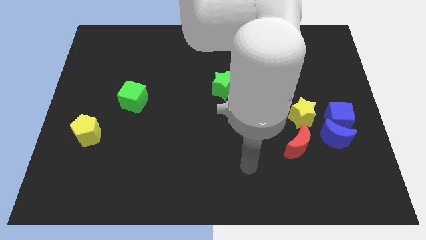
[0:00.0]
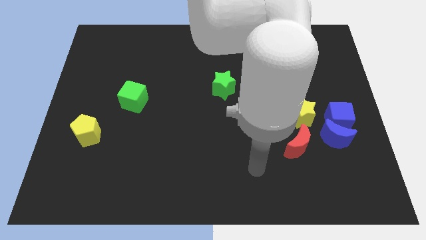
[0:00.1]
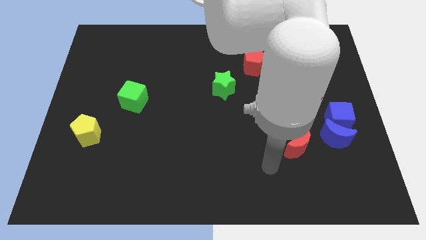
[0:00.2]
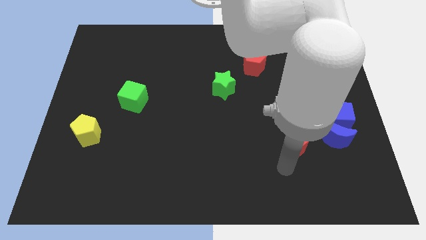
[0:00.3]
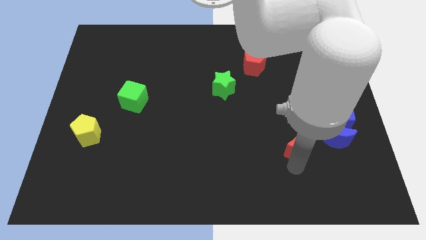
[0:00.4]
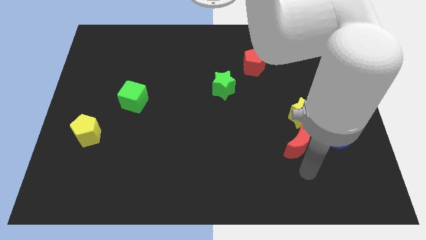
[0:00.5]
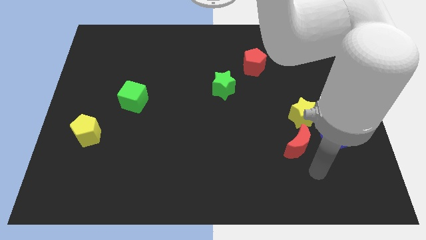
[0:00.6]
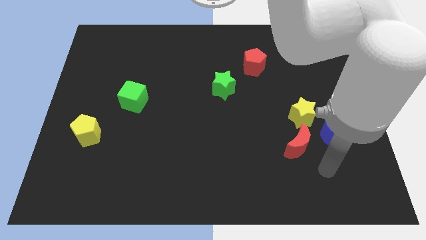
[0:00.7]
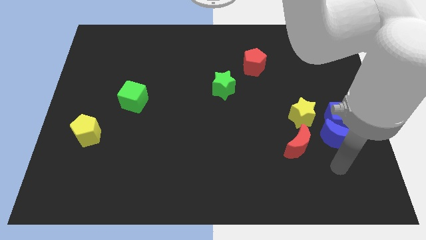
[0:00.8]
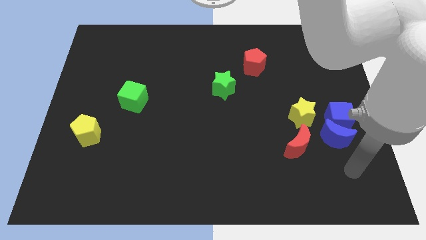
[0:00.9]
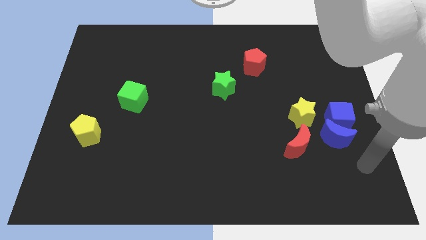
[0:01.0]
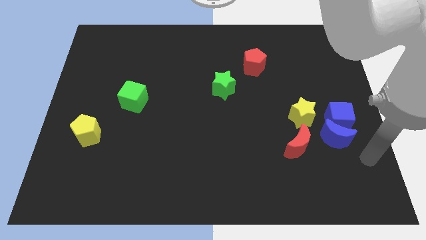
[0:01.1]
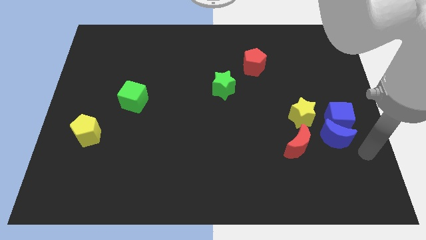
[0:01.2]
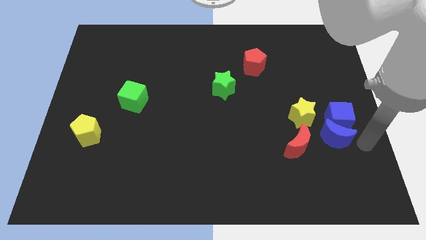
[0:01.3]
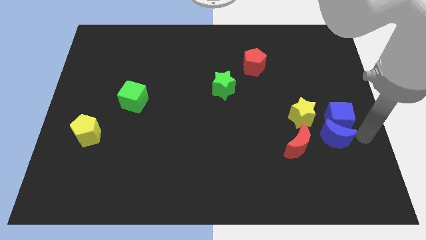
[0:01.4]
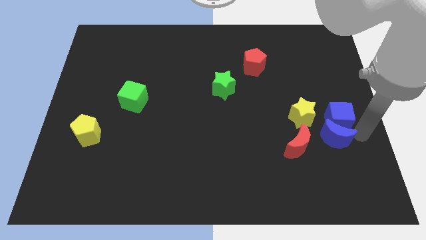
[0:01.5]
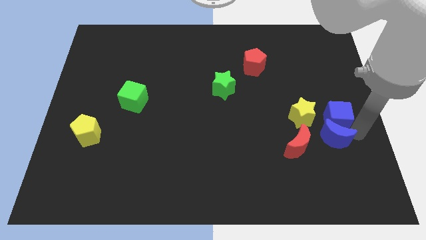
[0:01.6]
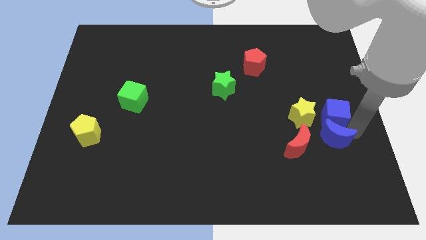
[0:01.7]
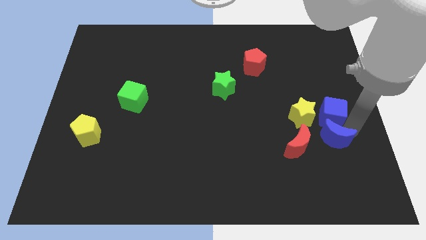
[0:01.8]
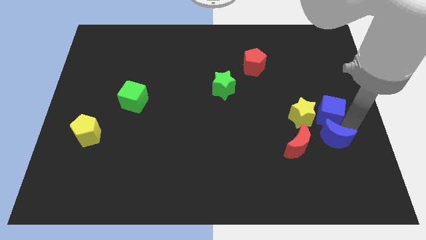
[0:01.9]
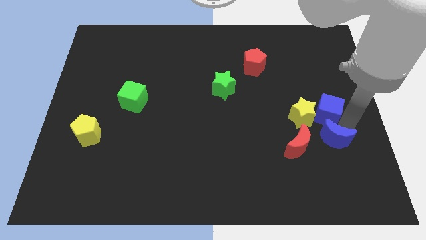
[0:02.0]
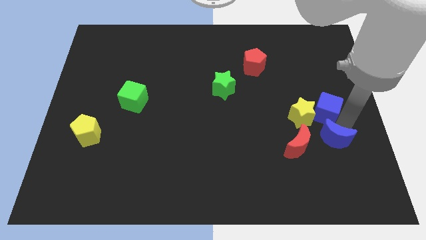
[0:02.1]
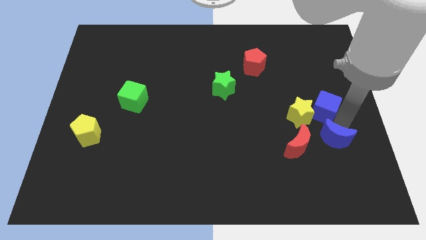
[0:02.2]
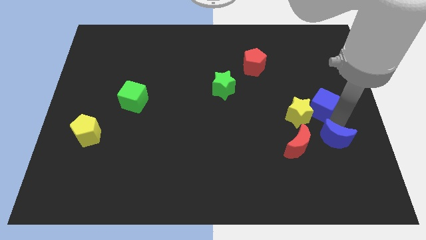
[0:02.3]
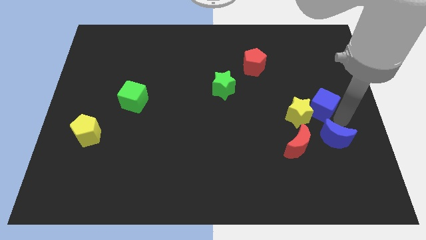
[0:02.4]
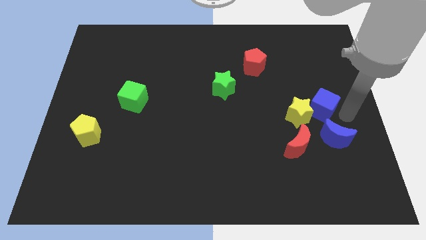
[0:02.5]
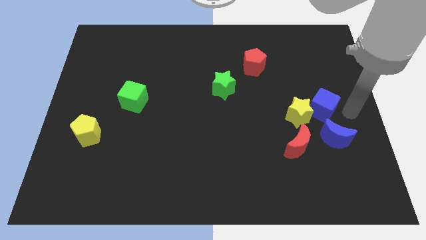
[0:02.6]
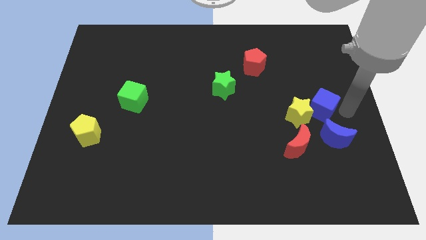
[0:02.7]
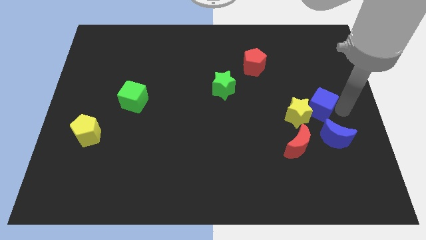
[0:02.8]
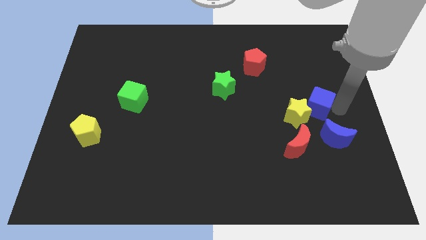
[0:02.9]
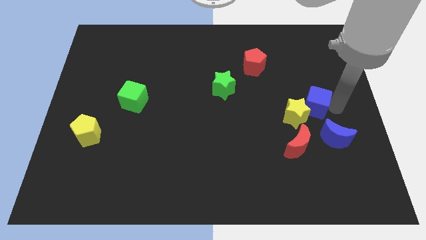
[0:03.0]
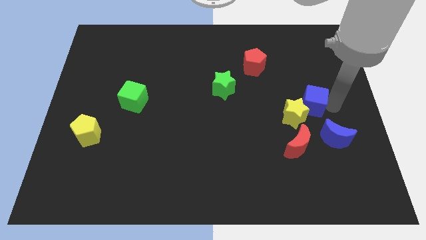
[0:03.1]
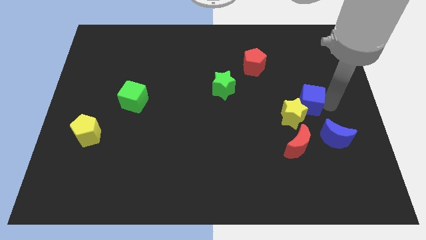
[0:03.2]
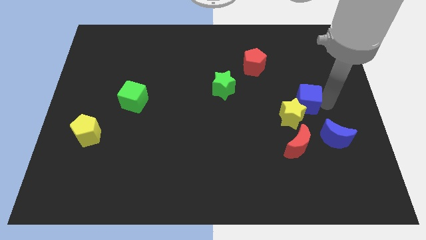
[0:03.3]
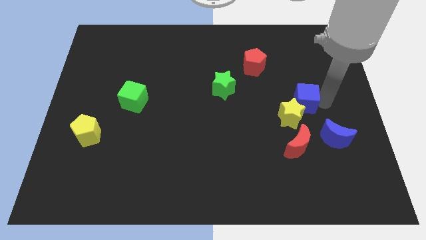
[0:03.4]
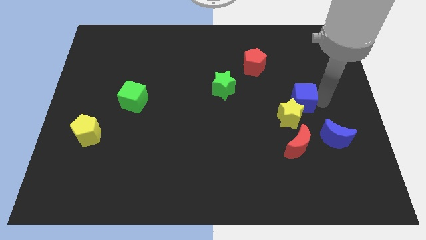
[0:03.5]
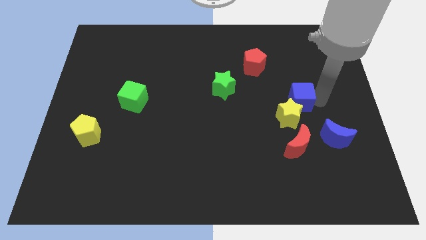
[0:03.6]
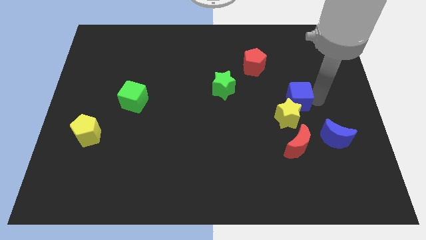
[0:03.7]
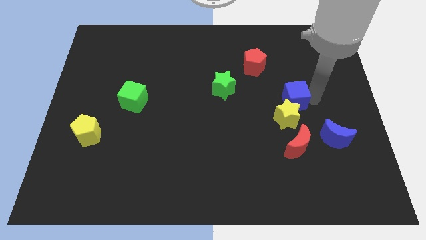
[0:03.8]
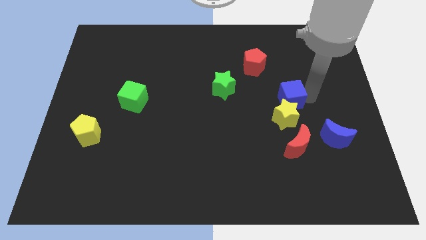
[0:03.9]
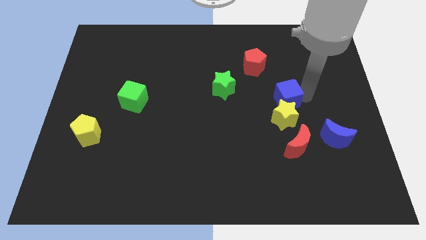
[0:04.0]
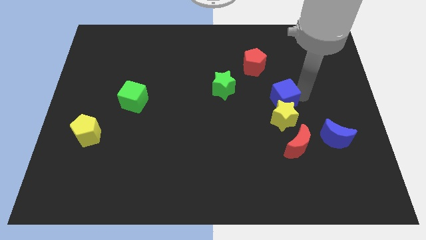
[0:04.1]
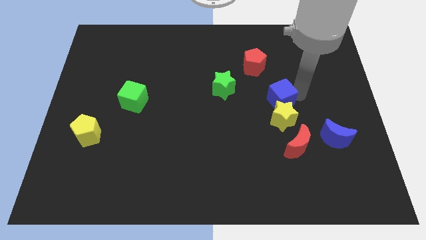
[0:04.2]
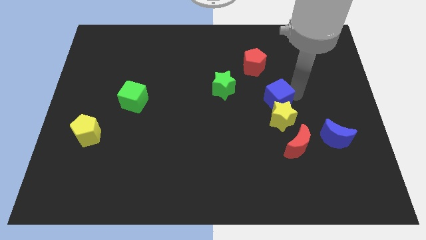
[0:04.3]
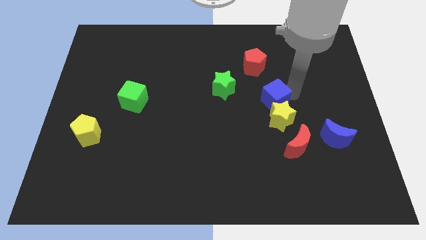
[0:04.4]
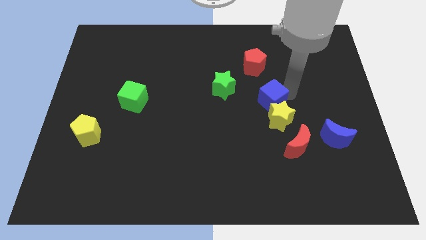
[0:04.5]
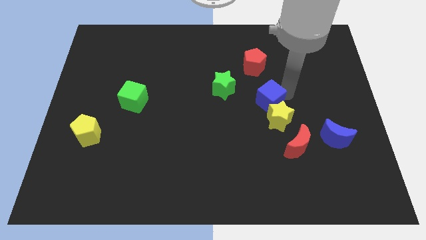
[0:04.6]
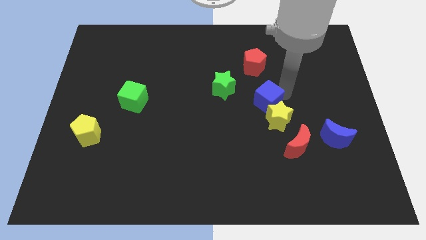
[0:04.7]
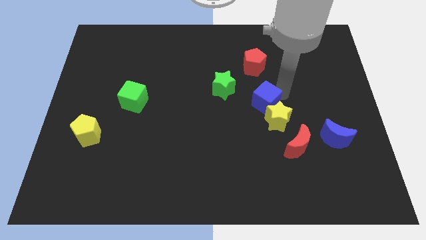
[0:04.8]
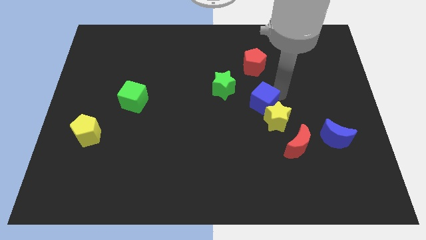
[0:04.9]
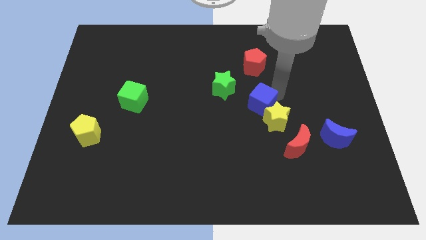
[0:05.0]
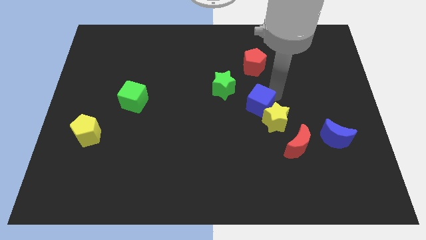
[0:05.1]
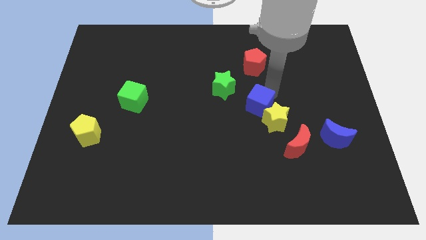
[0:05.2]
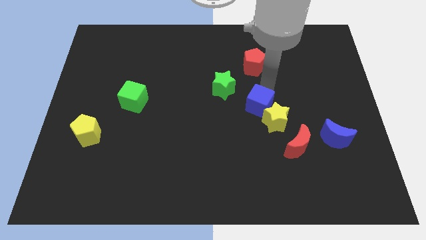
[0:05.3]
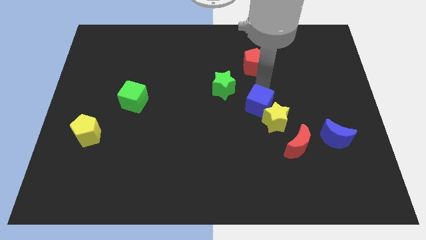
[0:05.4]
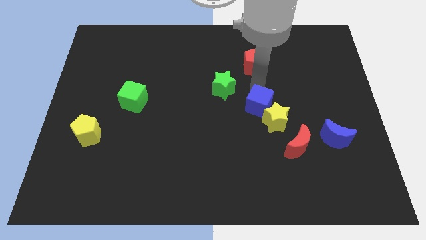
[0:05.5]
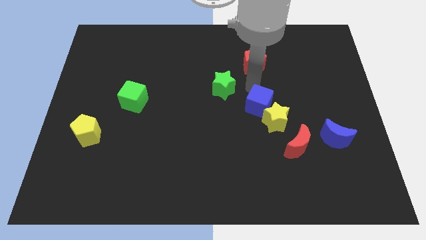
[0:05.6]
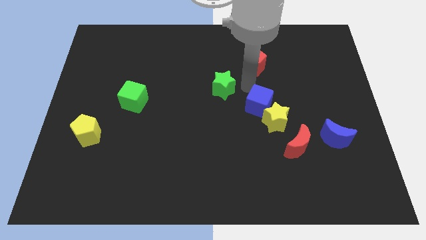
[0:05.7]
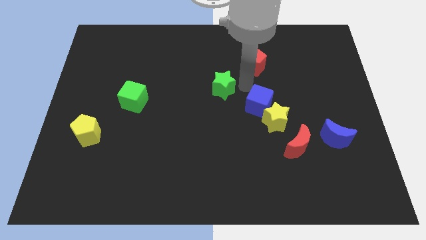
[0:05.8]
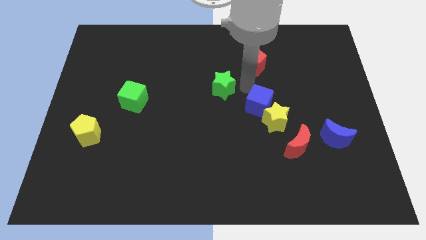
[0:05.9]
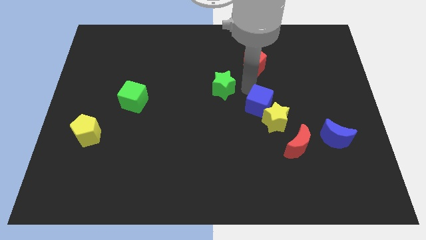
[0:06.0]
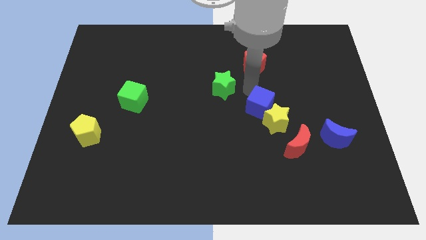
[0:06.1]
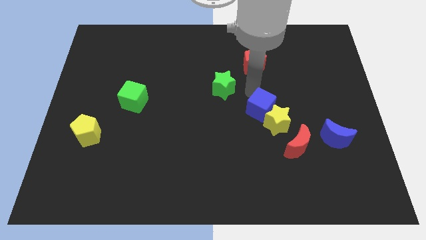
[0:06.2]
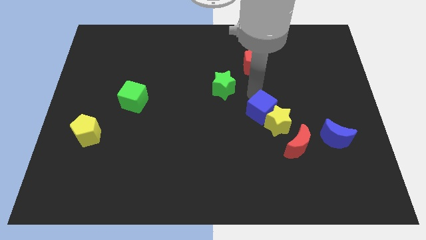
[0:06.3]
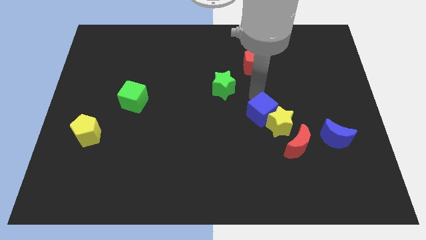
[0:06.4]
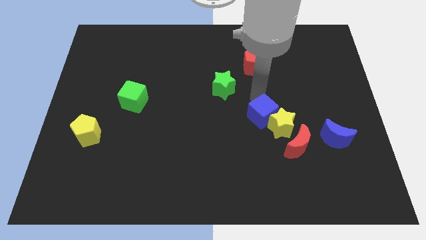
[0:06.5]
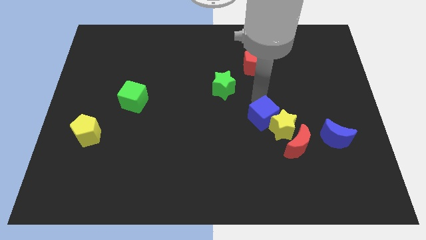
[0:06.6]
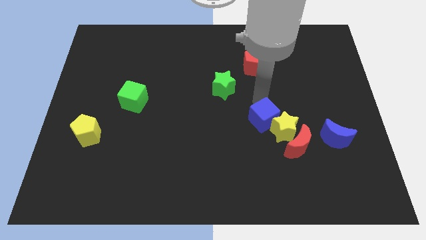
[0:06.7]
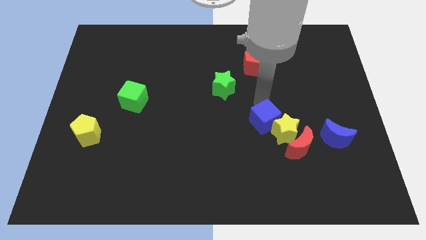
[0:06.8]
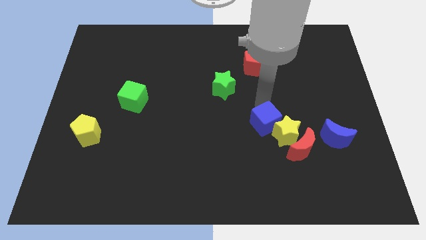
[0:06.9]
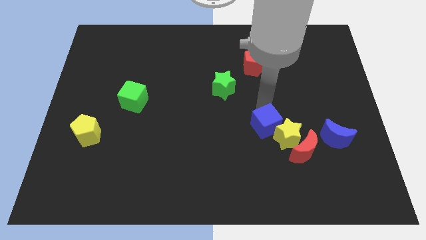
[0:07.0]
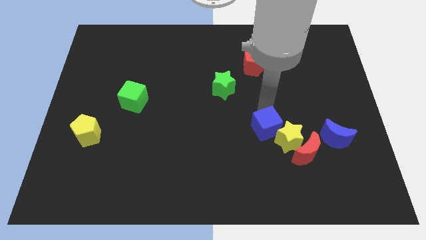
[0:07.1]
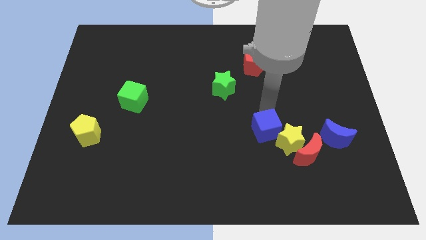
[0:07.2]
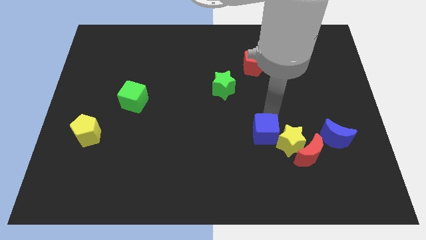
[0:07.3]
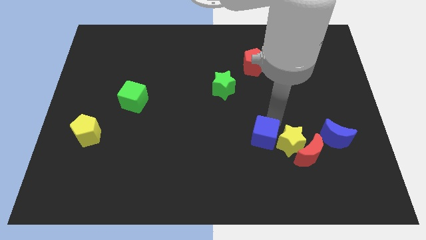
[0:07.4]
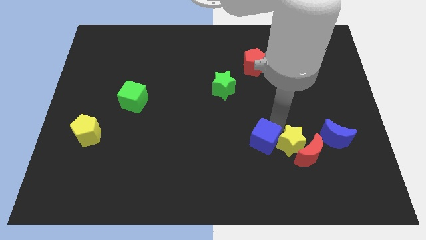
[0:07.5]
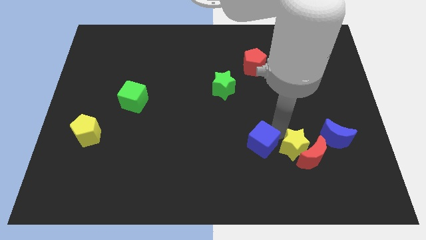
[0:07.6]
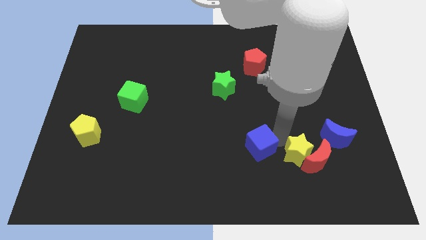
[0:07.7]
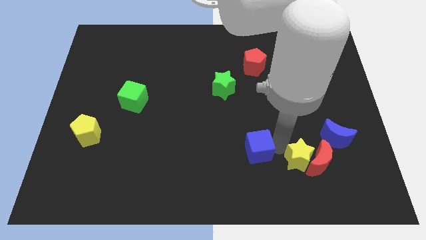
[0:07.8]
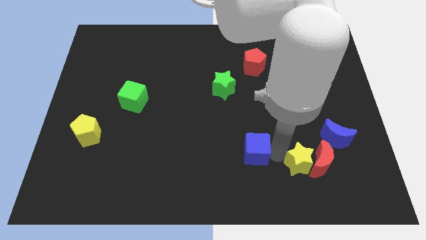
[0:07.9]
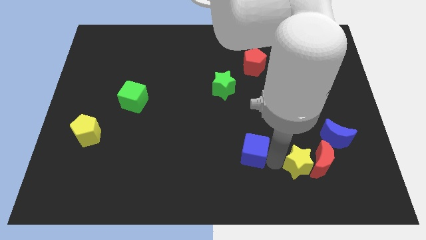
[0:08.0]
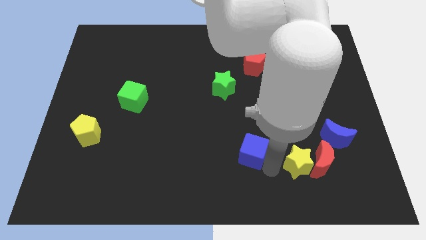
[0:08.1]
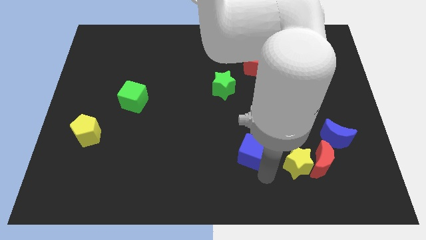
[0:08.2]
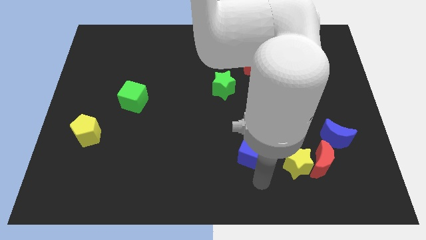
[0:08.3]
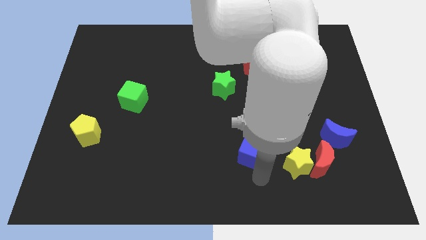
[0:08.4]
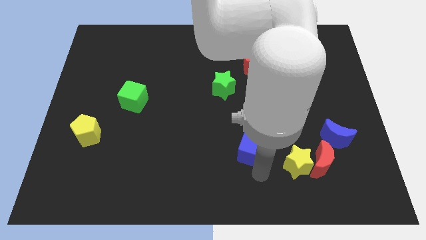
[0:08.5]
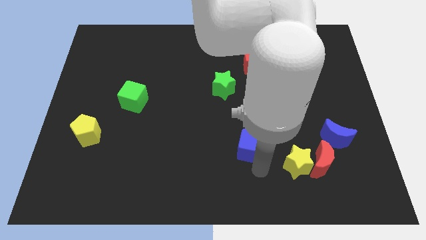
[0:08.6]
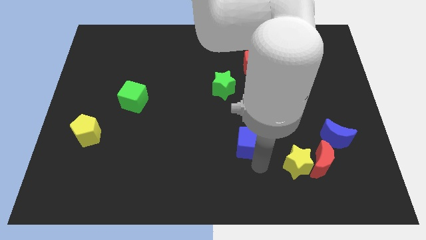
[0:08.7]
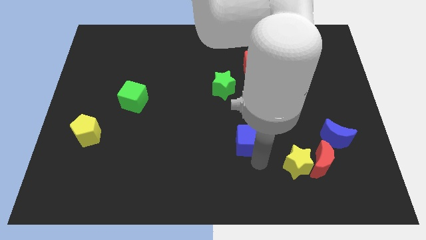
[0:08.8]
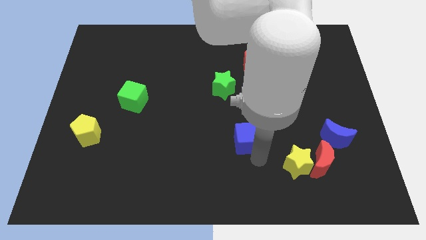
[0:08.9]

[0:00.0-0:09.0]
move the blue cube to the left
